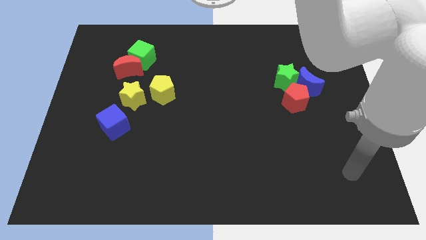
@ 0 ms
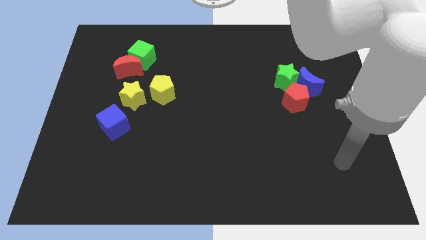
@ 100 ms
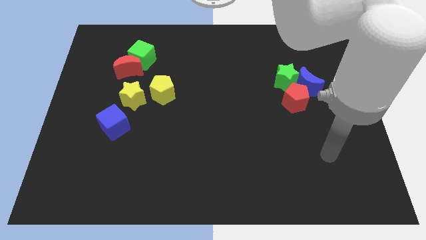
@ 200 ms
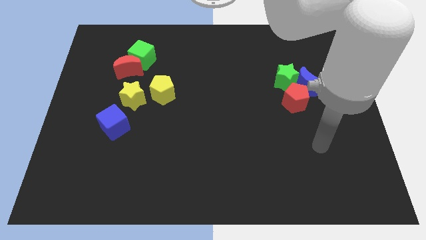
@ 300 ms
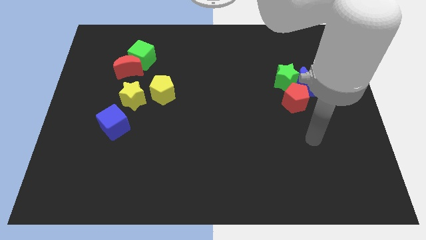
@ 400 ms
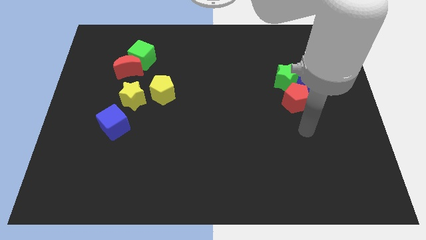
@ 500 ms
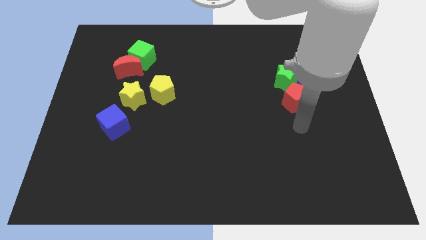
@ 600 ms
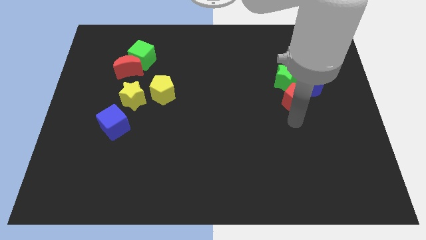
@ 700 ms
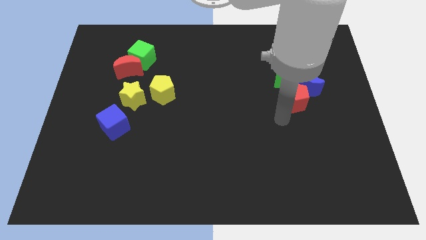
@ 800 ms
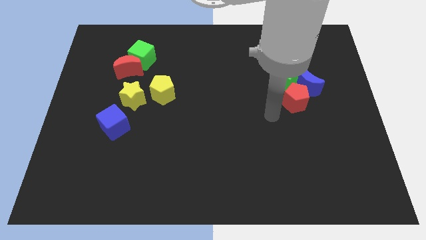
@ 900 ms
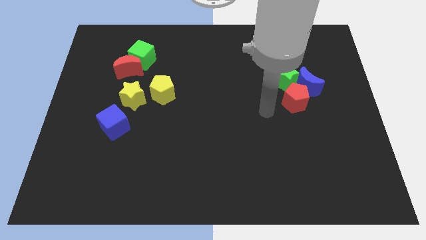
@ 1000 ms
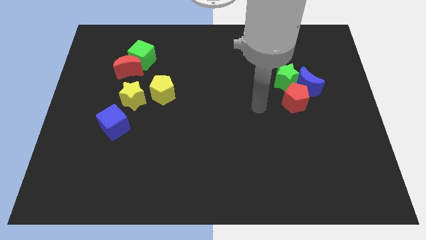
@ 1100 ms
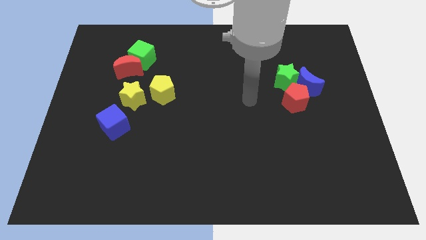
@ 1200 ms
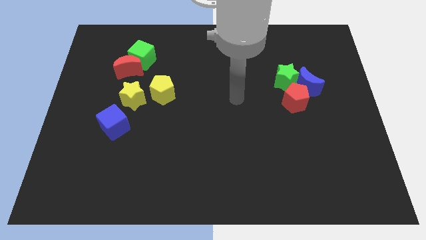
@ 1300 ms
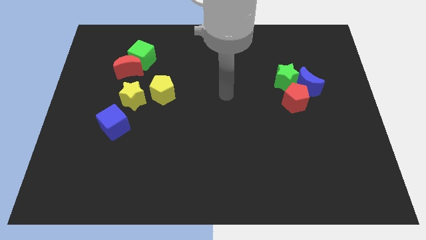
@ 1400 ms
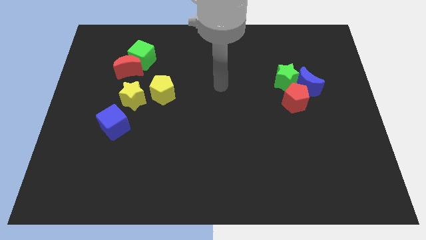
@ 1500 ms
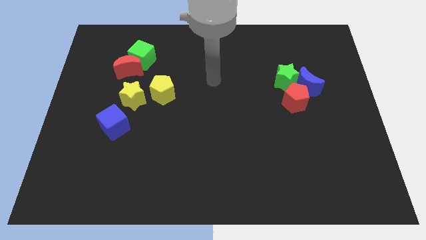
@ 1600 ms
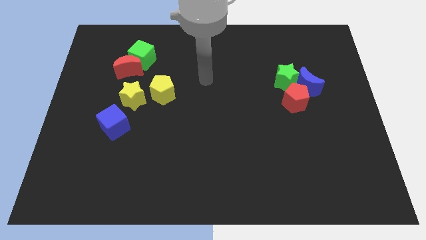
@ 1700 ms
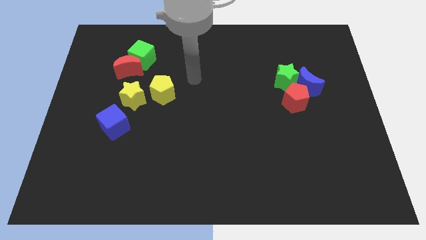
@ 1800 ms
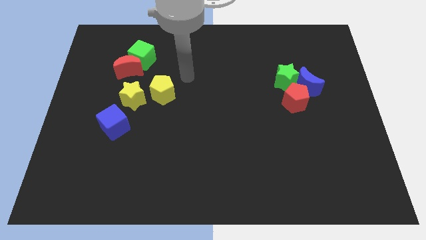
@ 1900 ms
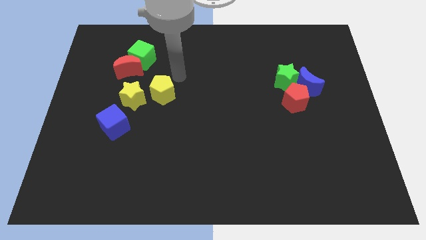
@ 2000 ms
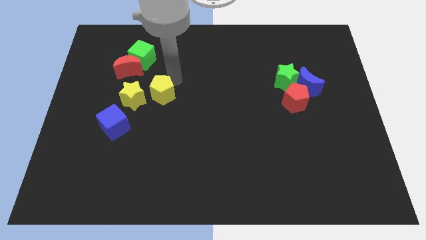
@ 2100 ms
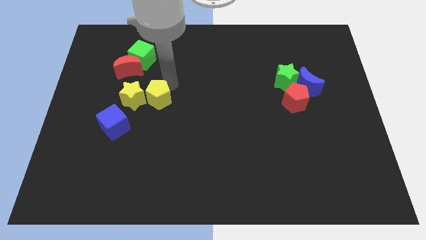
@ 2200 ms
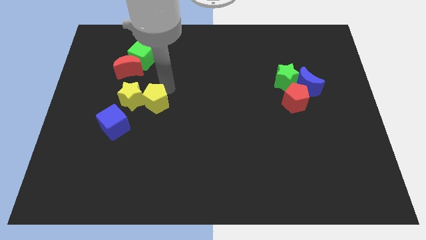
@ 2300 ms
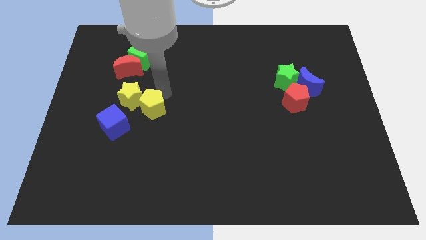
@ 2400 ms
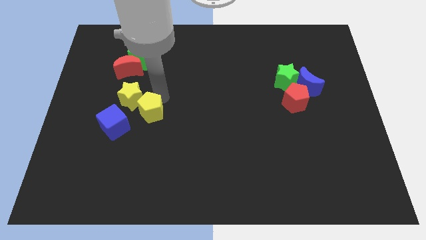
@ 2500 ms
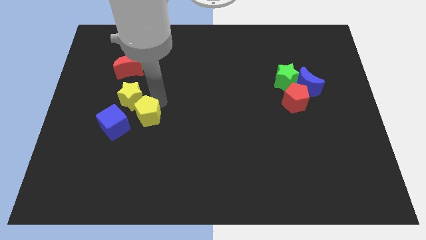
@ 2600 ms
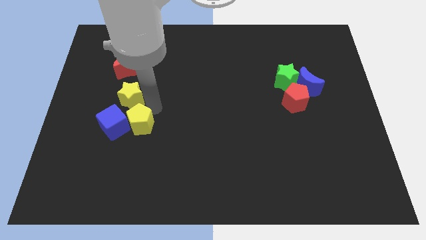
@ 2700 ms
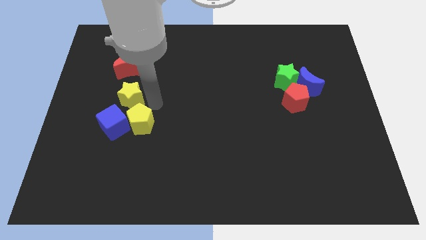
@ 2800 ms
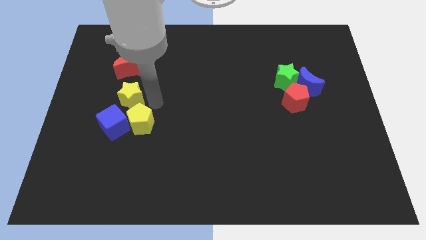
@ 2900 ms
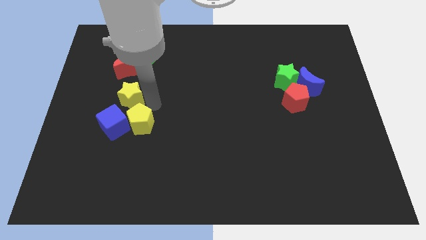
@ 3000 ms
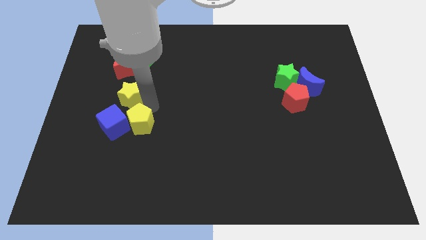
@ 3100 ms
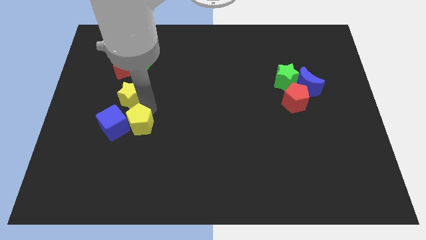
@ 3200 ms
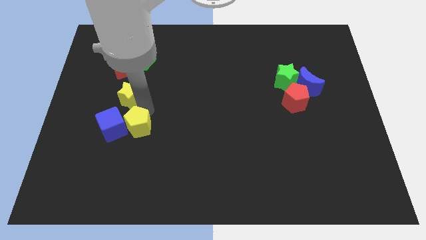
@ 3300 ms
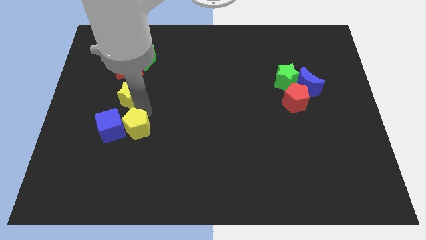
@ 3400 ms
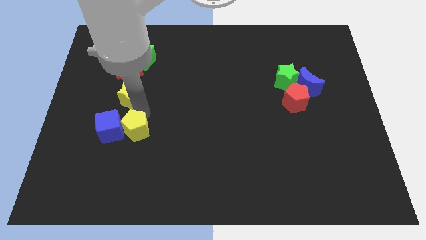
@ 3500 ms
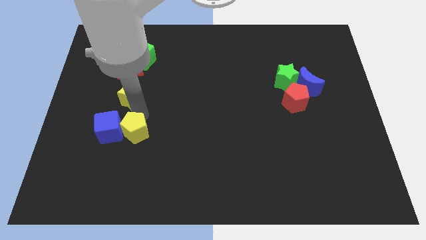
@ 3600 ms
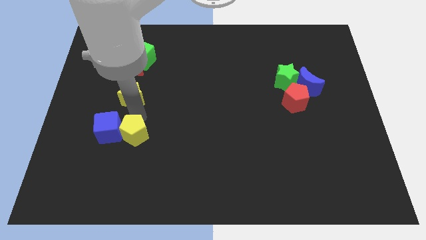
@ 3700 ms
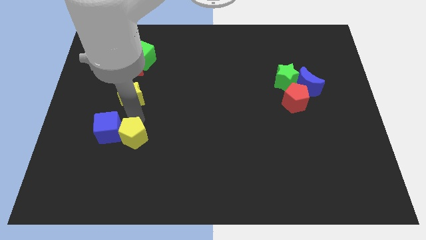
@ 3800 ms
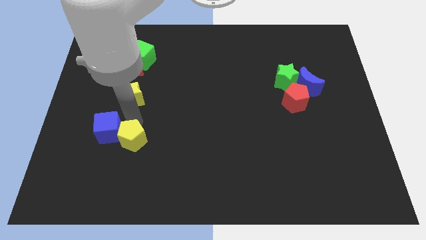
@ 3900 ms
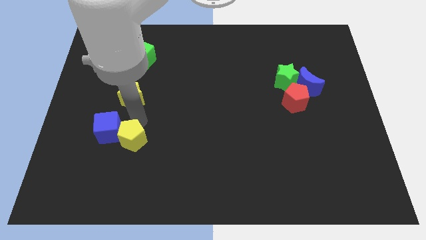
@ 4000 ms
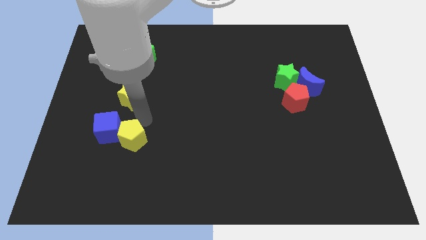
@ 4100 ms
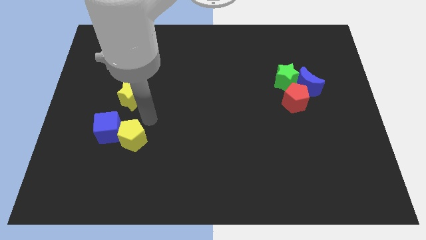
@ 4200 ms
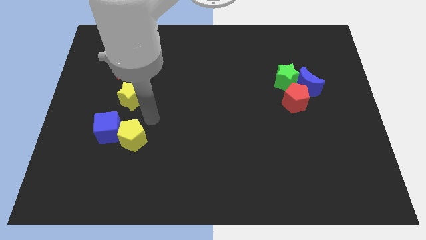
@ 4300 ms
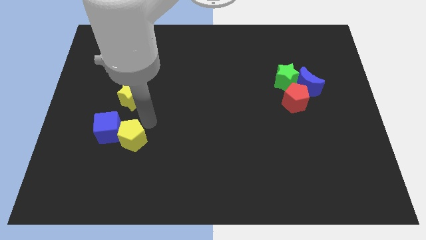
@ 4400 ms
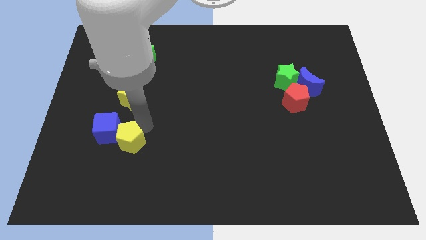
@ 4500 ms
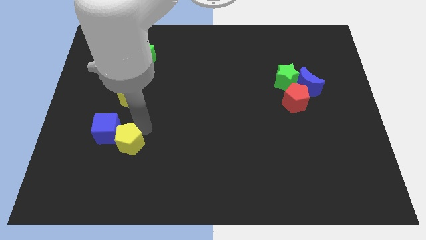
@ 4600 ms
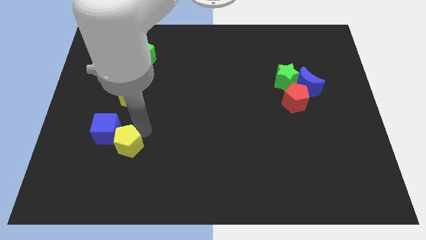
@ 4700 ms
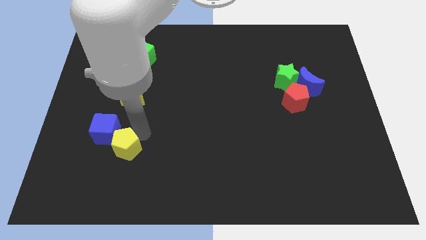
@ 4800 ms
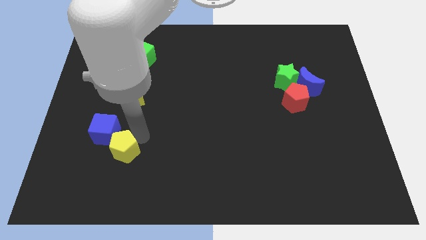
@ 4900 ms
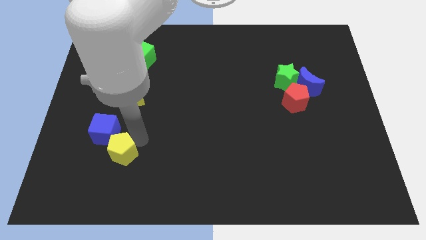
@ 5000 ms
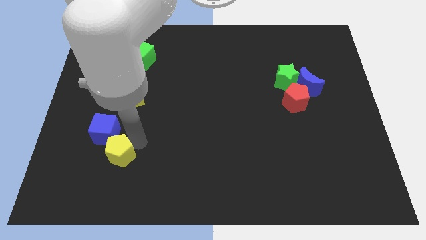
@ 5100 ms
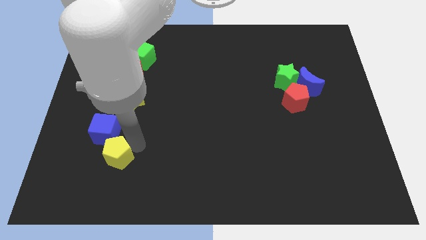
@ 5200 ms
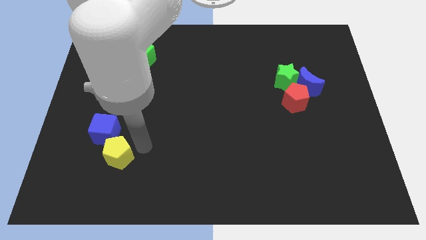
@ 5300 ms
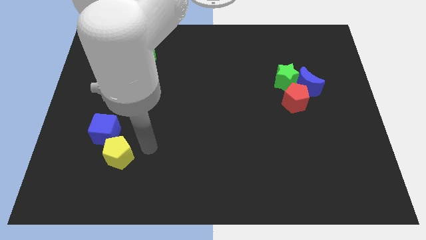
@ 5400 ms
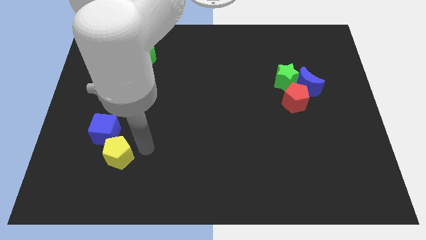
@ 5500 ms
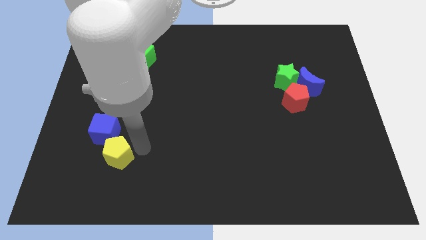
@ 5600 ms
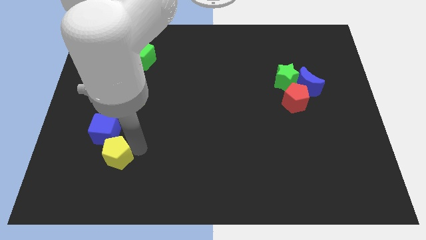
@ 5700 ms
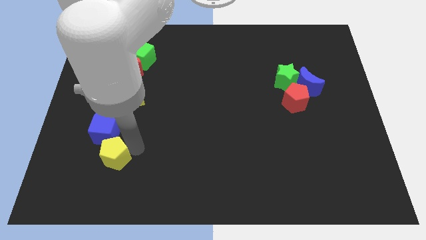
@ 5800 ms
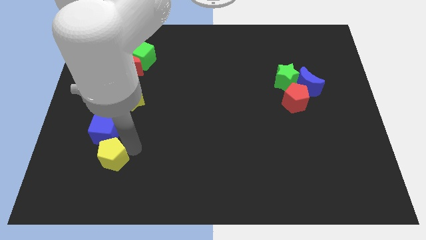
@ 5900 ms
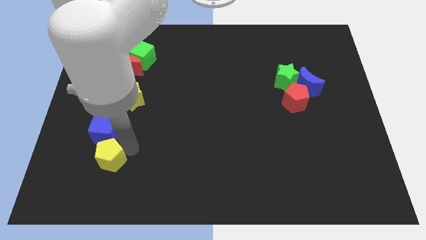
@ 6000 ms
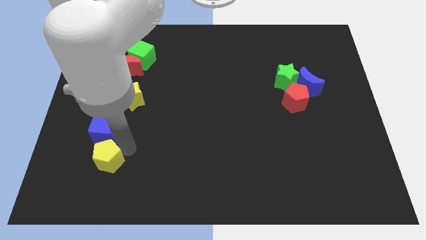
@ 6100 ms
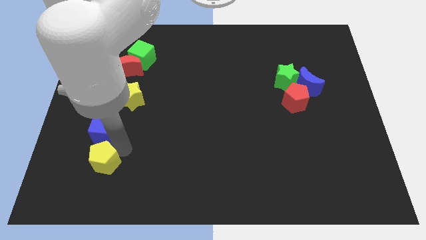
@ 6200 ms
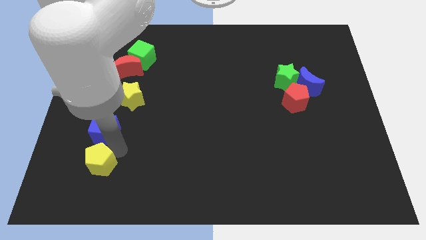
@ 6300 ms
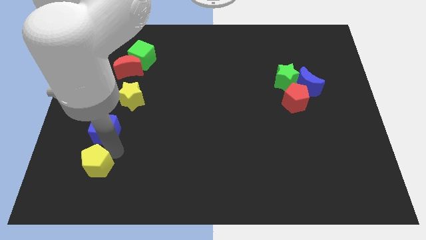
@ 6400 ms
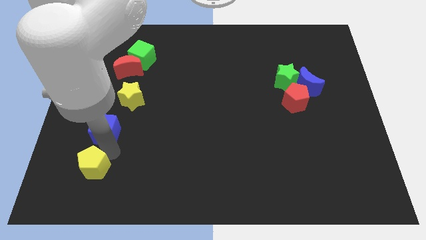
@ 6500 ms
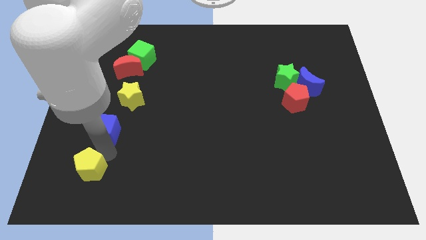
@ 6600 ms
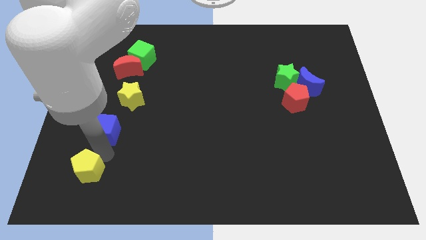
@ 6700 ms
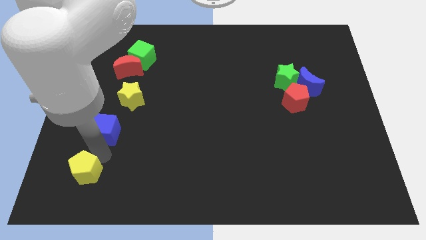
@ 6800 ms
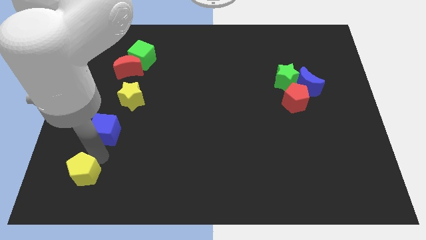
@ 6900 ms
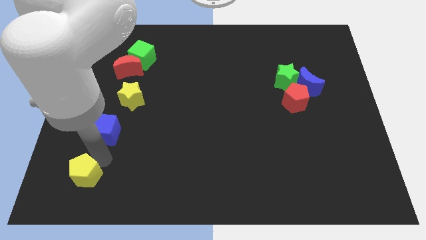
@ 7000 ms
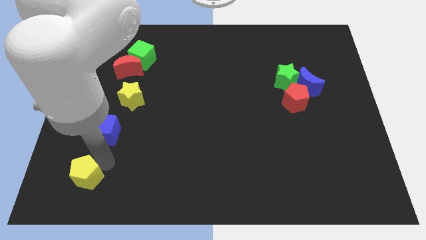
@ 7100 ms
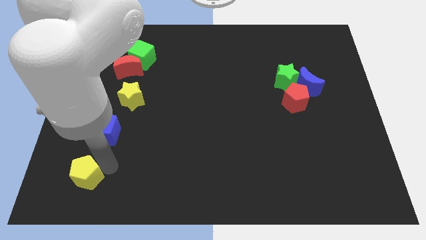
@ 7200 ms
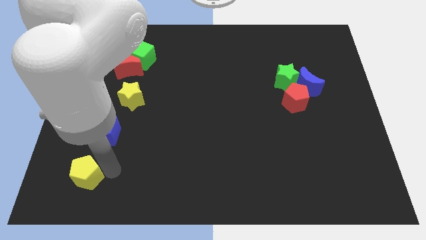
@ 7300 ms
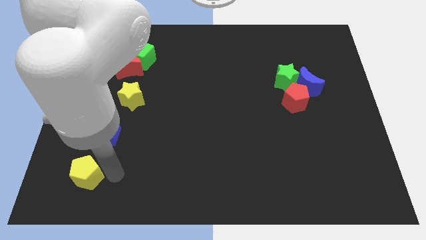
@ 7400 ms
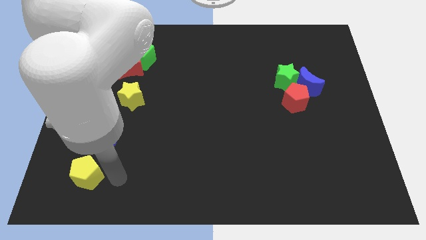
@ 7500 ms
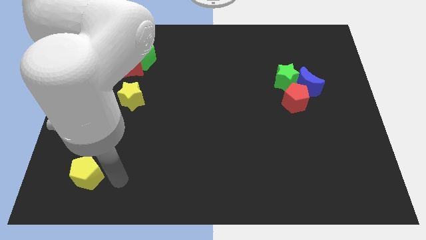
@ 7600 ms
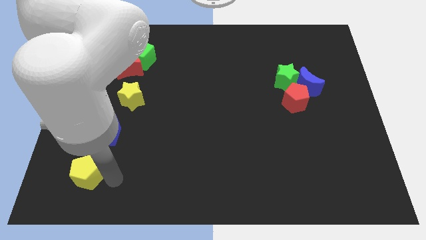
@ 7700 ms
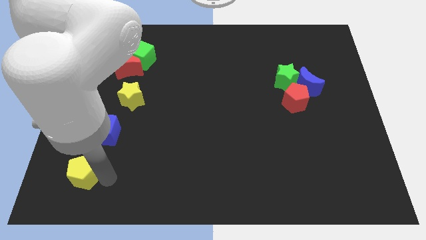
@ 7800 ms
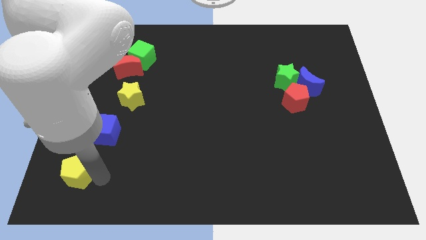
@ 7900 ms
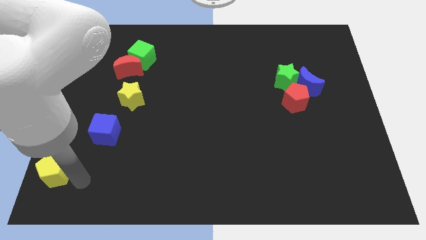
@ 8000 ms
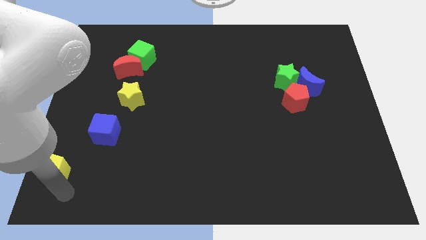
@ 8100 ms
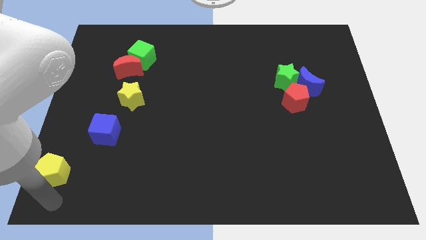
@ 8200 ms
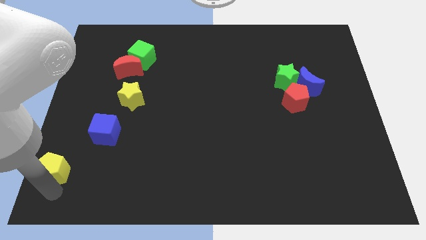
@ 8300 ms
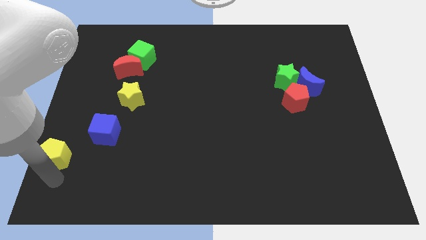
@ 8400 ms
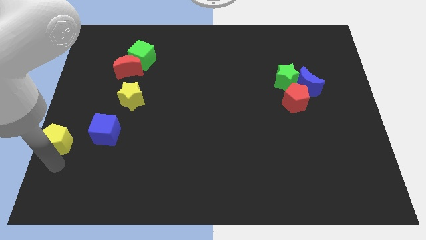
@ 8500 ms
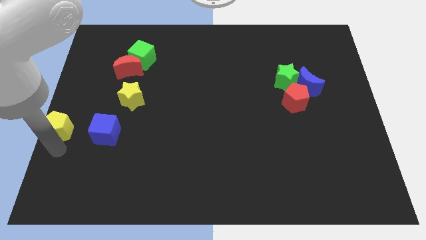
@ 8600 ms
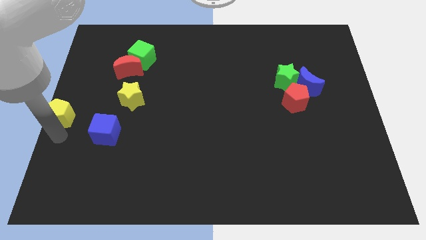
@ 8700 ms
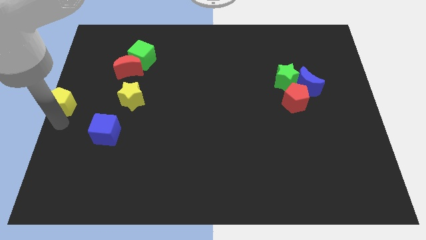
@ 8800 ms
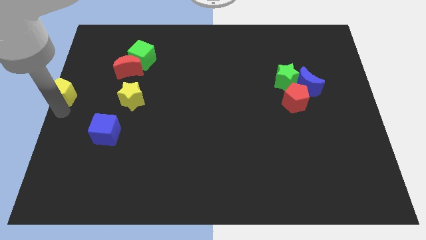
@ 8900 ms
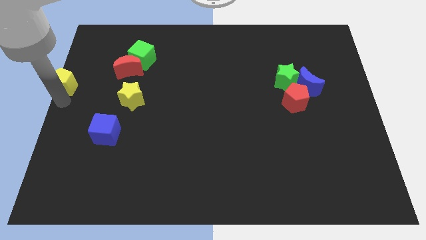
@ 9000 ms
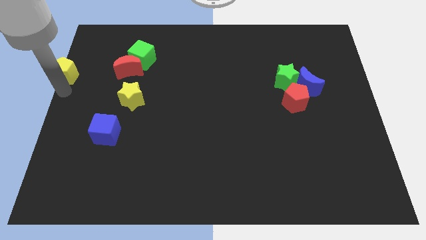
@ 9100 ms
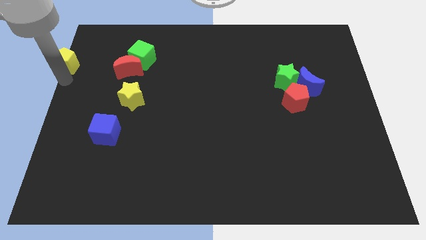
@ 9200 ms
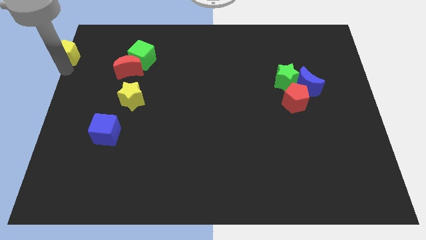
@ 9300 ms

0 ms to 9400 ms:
slide the yellow pentagon to the top left of the board
